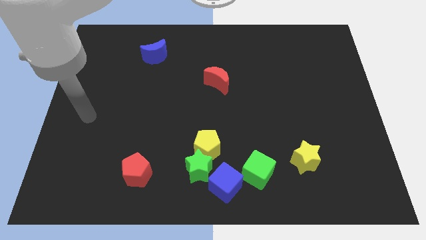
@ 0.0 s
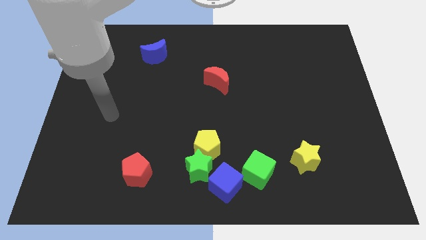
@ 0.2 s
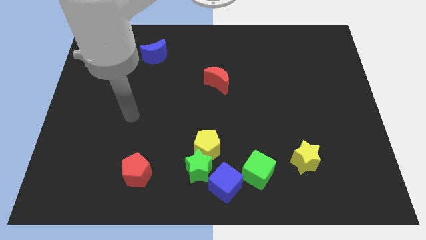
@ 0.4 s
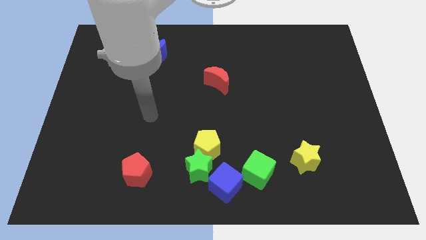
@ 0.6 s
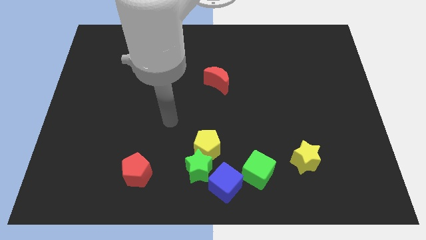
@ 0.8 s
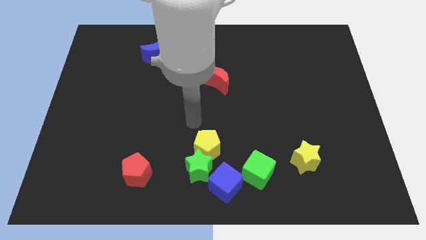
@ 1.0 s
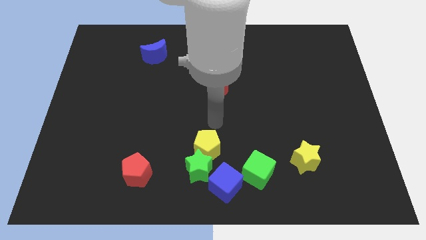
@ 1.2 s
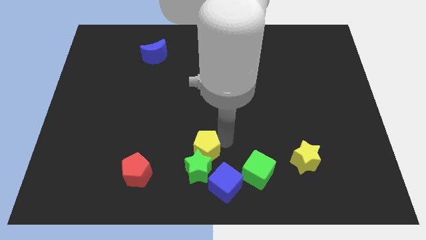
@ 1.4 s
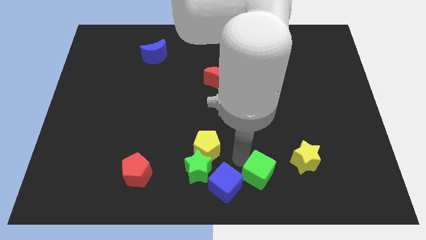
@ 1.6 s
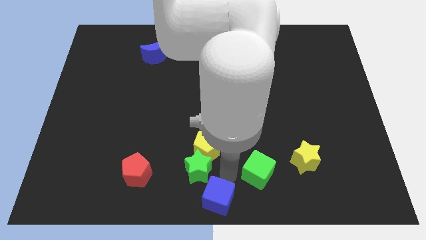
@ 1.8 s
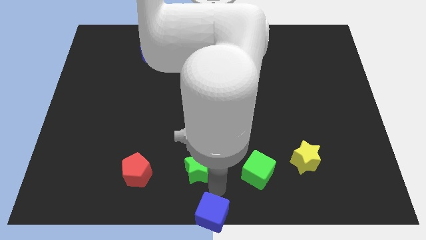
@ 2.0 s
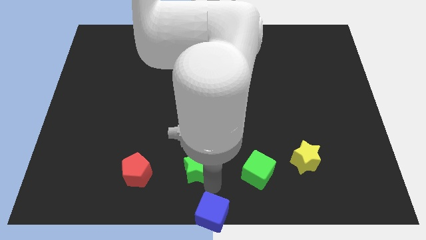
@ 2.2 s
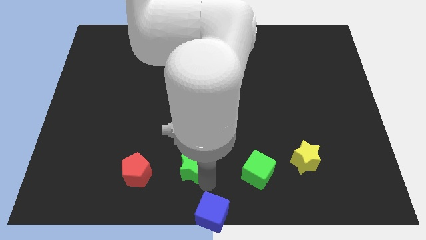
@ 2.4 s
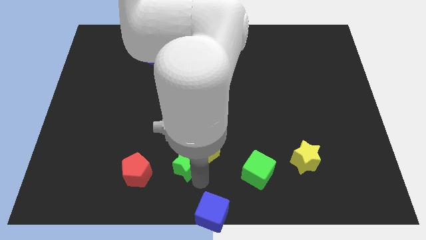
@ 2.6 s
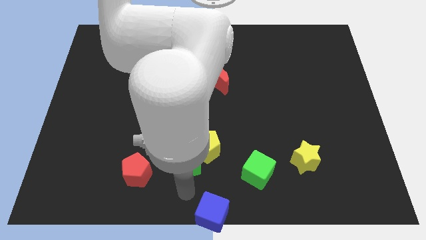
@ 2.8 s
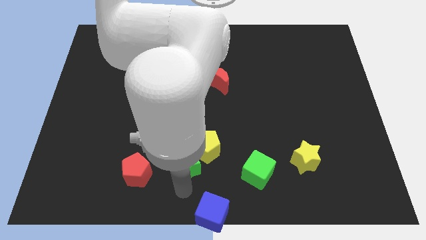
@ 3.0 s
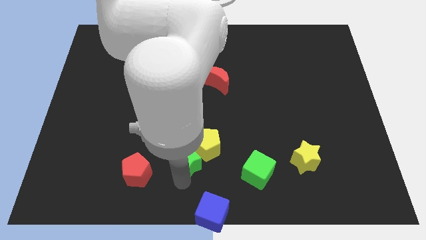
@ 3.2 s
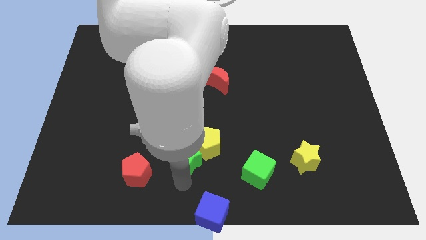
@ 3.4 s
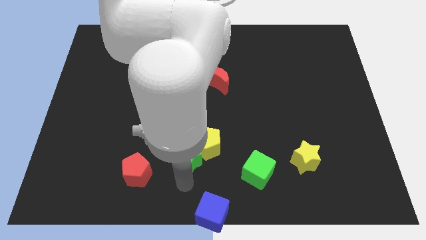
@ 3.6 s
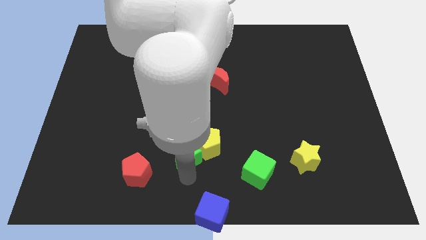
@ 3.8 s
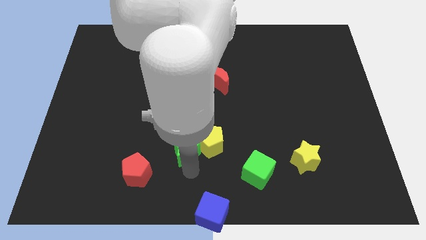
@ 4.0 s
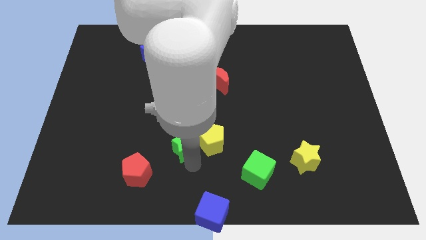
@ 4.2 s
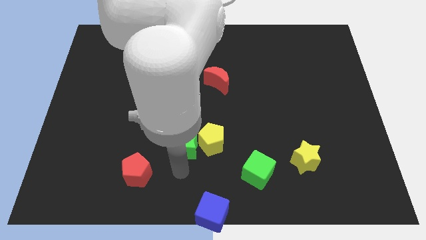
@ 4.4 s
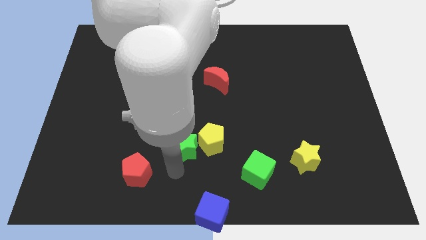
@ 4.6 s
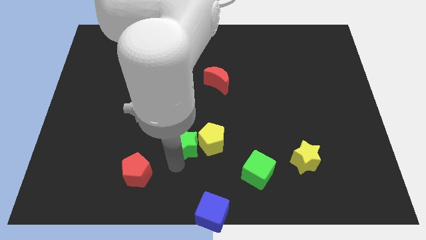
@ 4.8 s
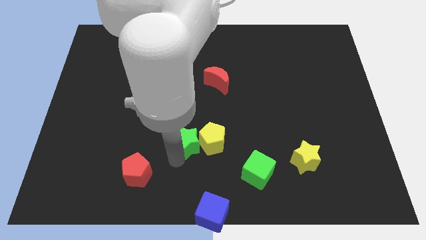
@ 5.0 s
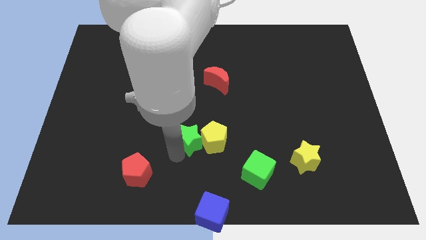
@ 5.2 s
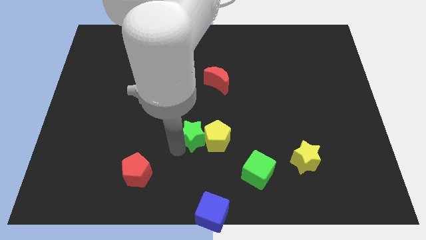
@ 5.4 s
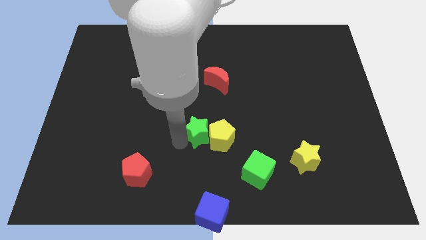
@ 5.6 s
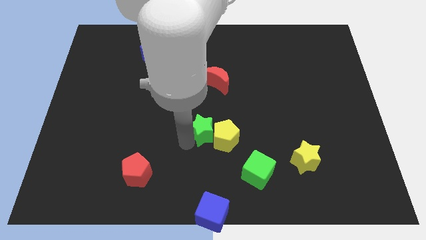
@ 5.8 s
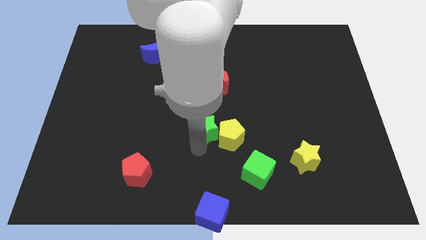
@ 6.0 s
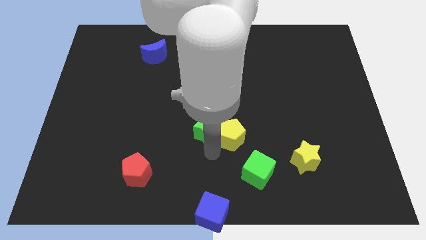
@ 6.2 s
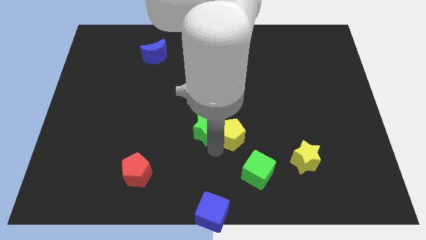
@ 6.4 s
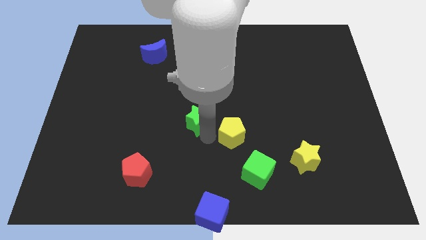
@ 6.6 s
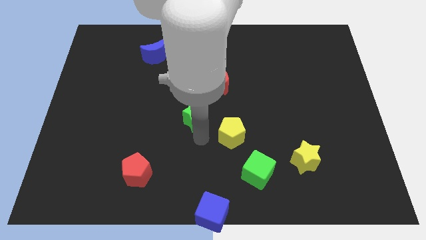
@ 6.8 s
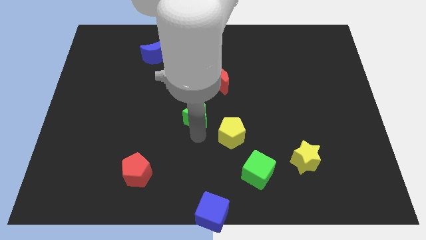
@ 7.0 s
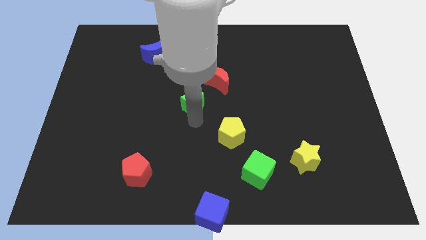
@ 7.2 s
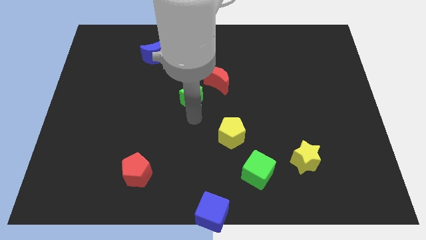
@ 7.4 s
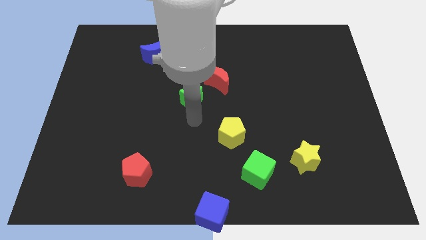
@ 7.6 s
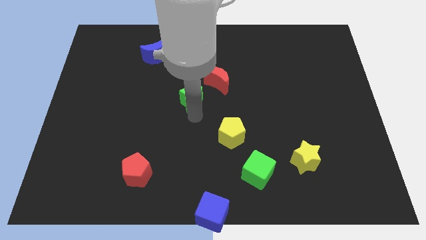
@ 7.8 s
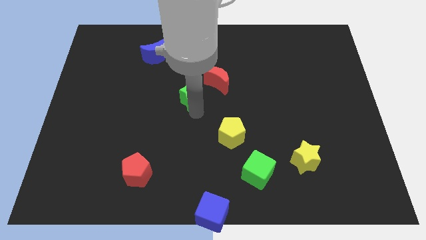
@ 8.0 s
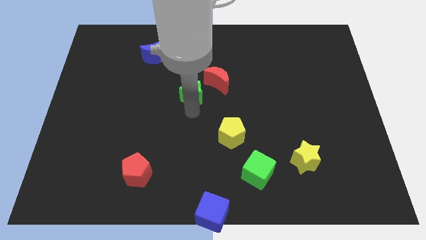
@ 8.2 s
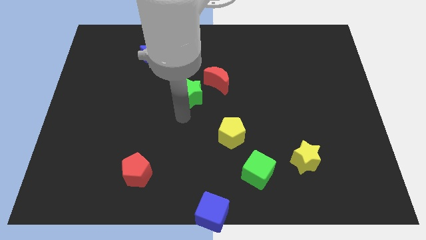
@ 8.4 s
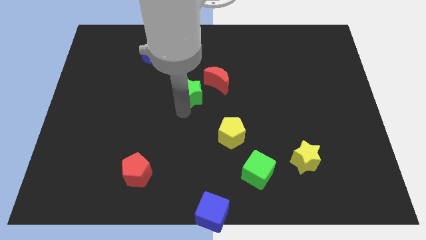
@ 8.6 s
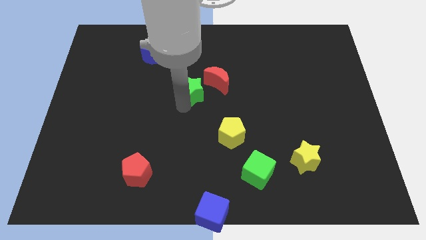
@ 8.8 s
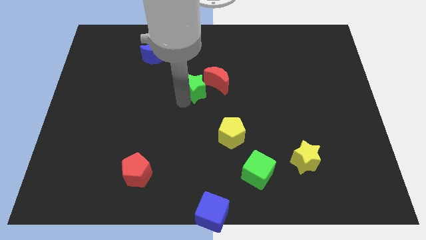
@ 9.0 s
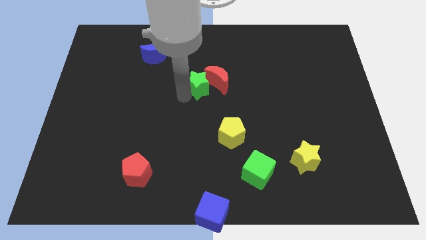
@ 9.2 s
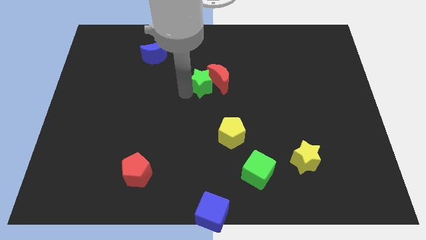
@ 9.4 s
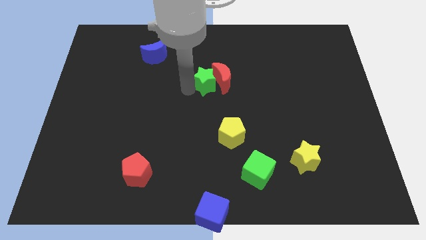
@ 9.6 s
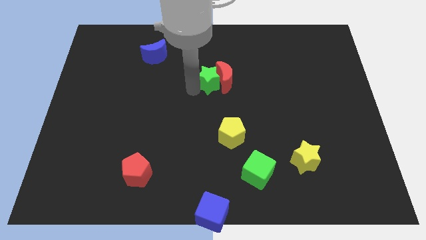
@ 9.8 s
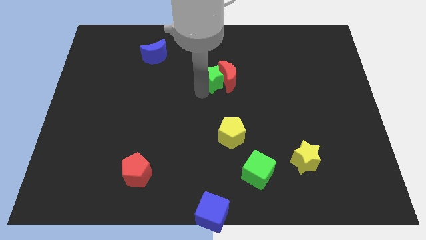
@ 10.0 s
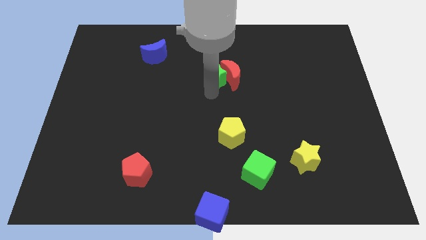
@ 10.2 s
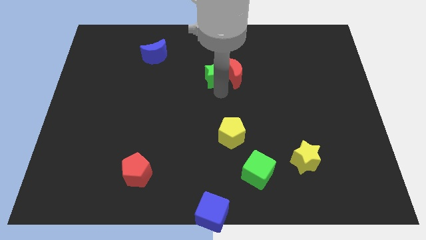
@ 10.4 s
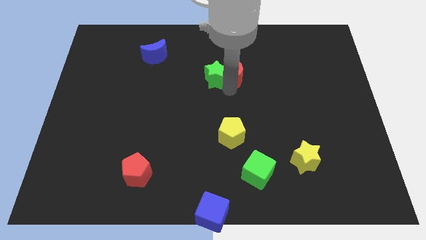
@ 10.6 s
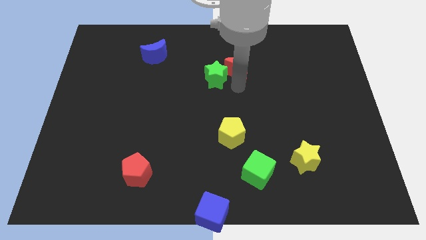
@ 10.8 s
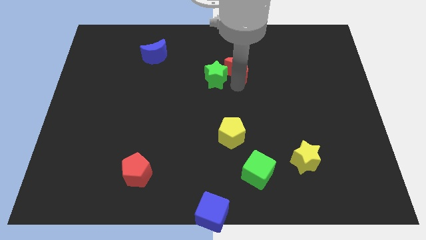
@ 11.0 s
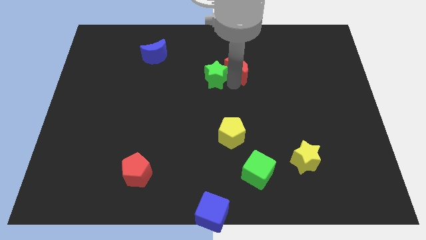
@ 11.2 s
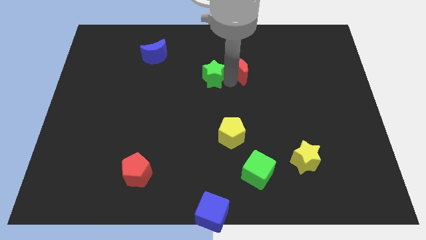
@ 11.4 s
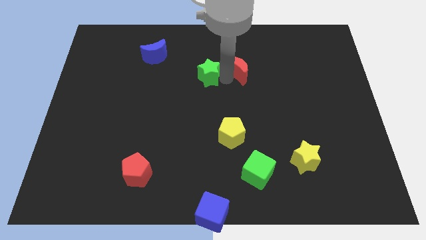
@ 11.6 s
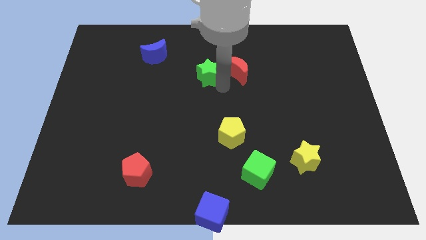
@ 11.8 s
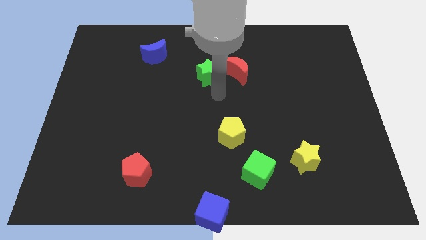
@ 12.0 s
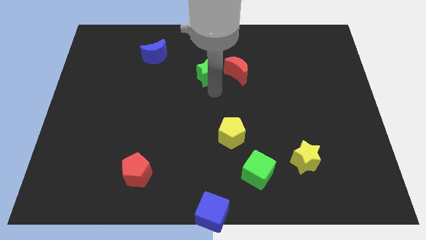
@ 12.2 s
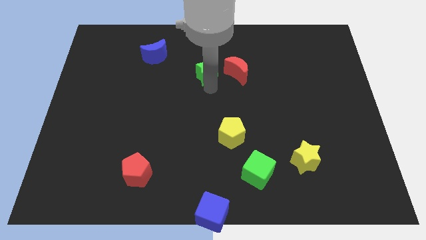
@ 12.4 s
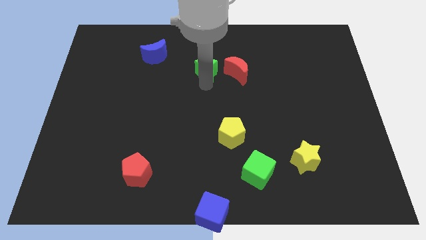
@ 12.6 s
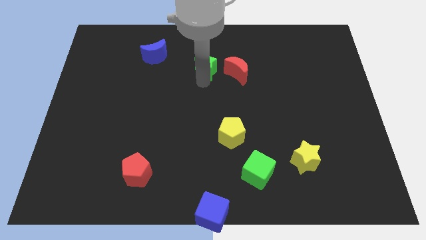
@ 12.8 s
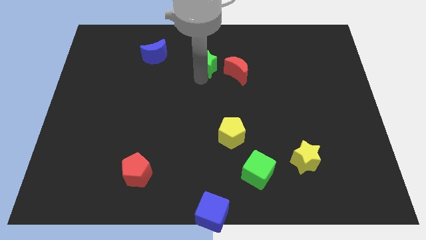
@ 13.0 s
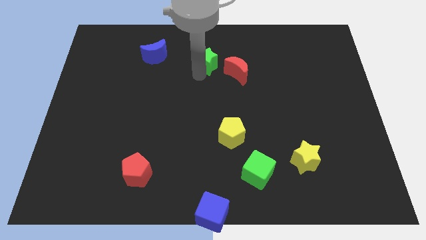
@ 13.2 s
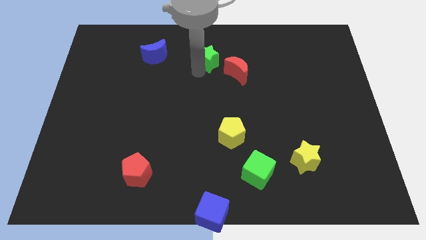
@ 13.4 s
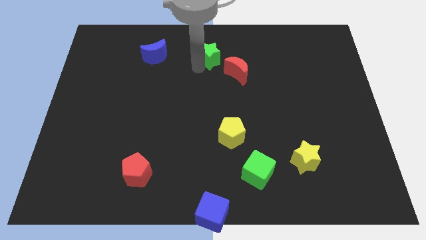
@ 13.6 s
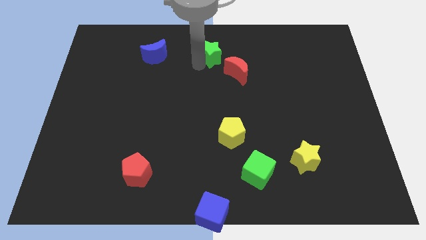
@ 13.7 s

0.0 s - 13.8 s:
move the green star to the top side

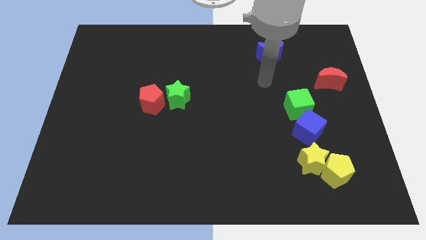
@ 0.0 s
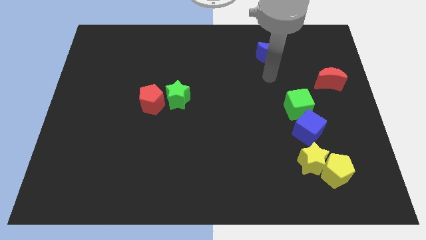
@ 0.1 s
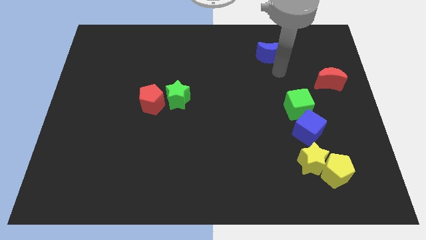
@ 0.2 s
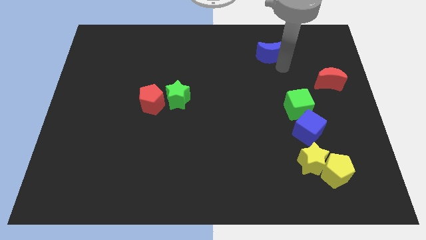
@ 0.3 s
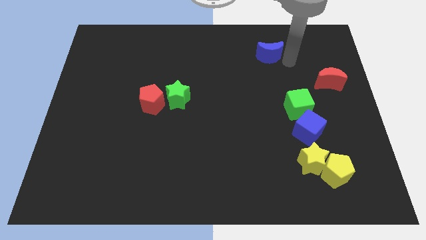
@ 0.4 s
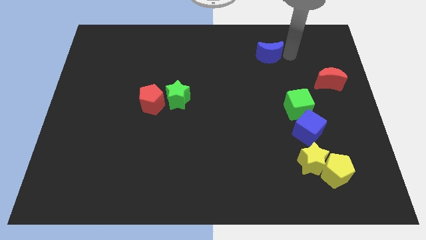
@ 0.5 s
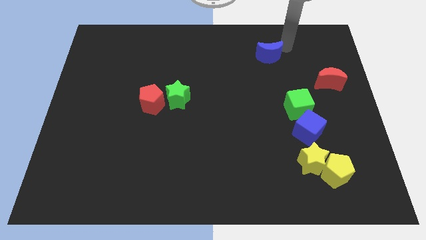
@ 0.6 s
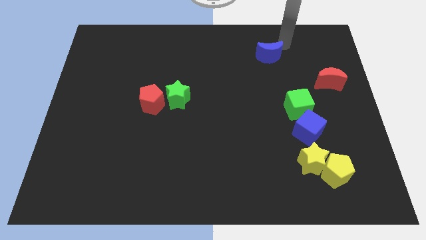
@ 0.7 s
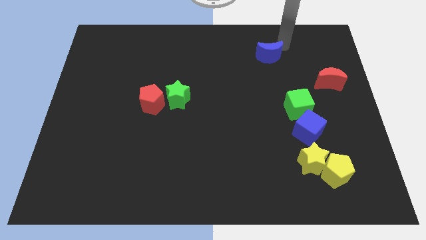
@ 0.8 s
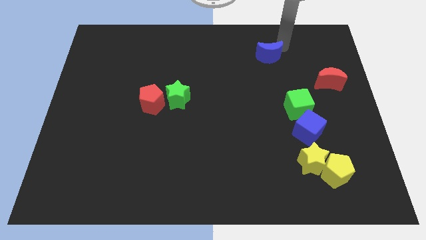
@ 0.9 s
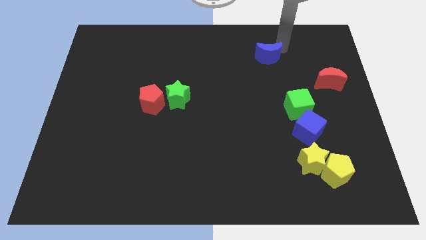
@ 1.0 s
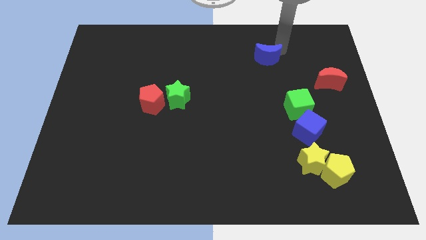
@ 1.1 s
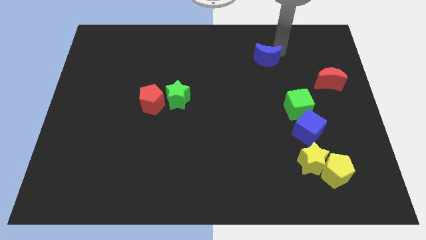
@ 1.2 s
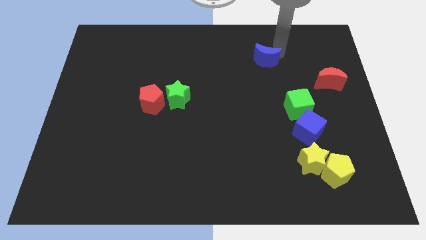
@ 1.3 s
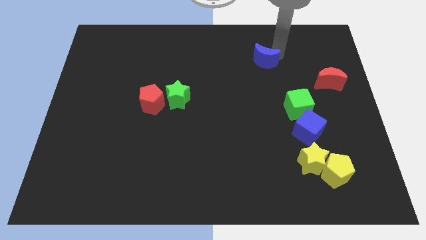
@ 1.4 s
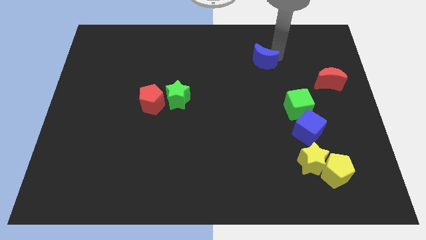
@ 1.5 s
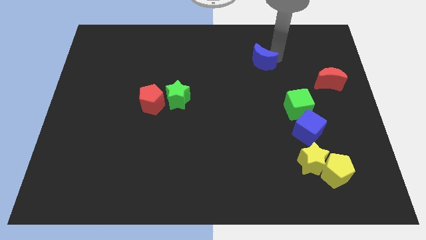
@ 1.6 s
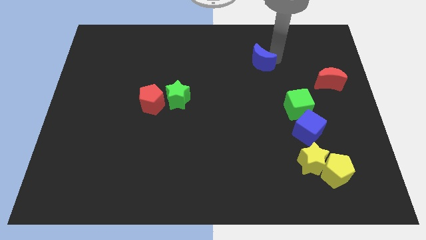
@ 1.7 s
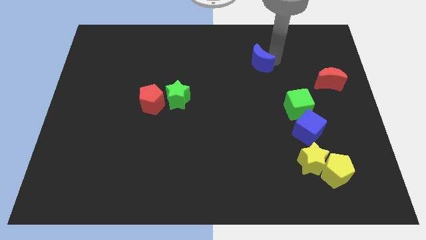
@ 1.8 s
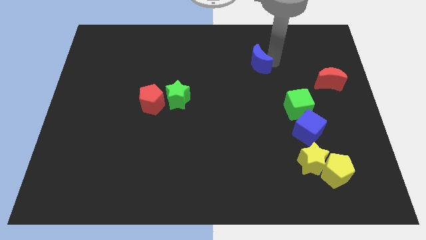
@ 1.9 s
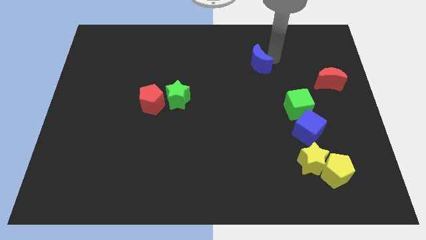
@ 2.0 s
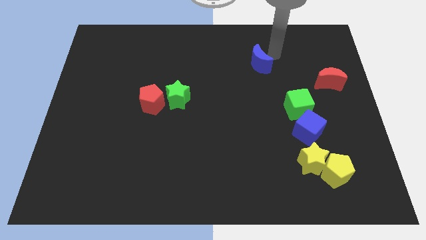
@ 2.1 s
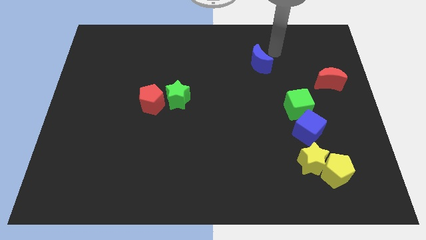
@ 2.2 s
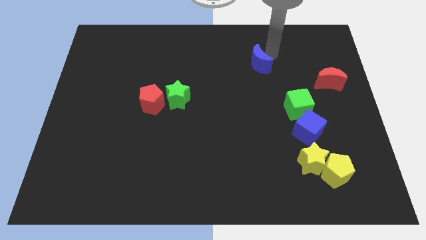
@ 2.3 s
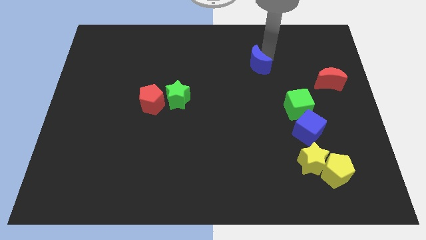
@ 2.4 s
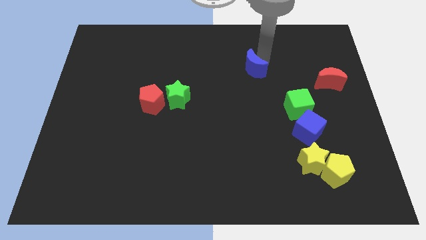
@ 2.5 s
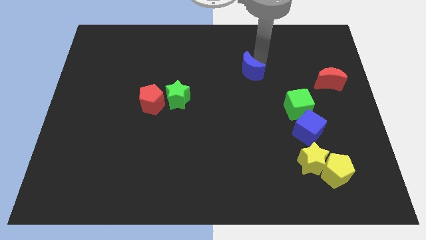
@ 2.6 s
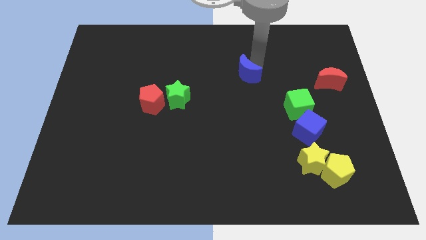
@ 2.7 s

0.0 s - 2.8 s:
move the blue moon to the middle of the board
